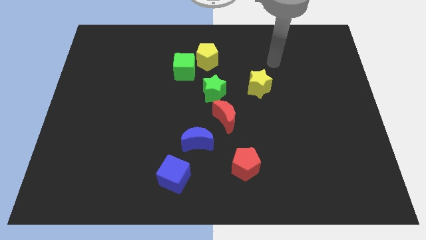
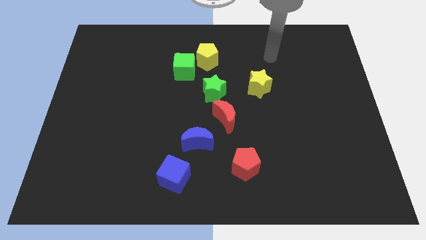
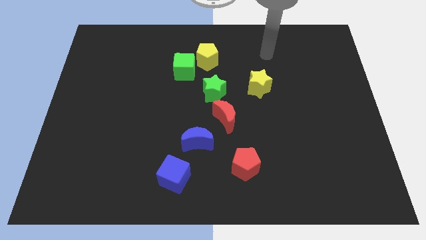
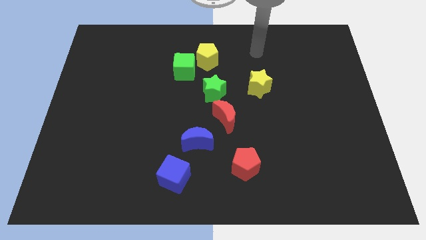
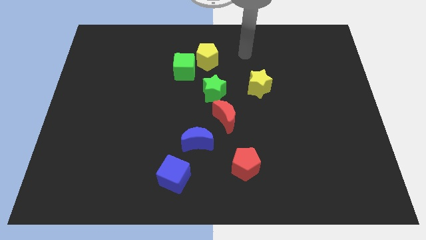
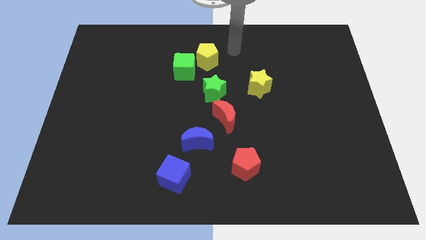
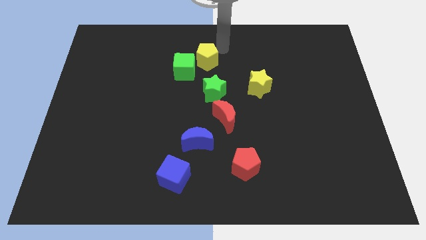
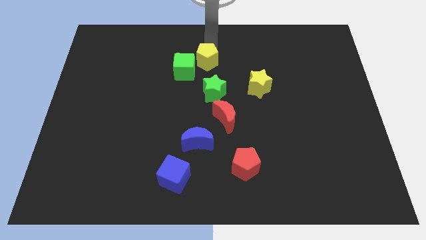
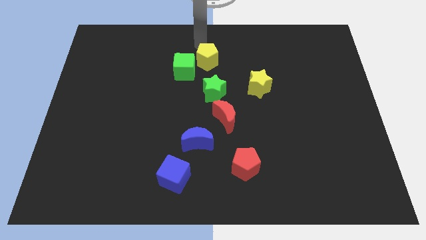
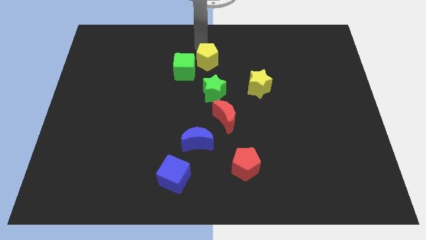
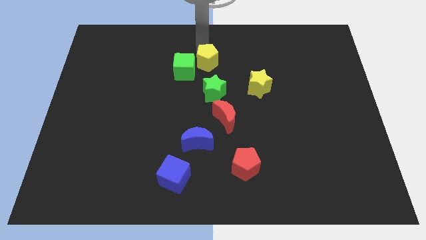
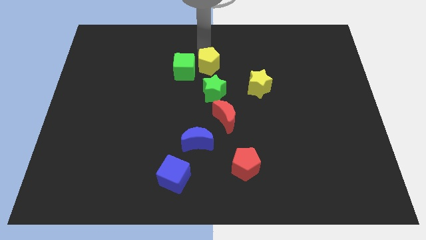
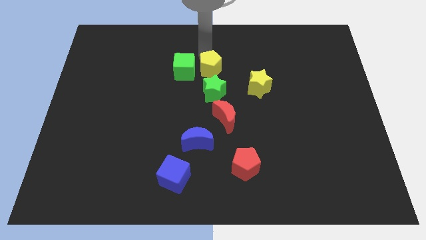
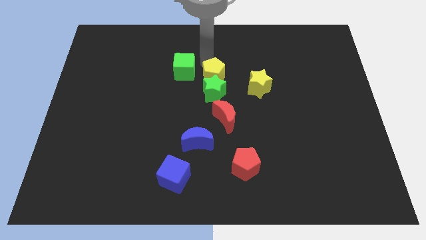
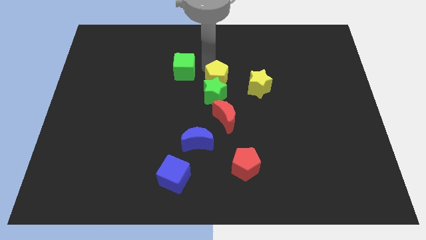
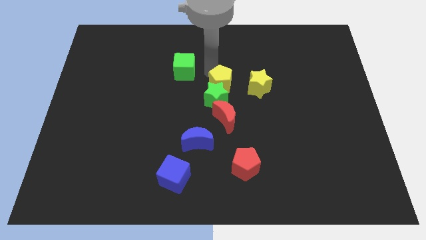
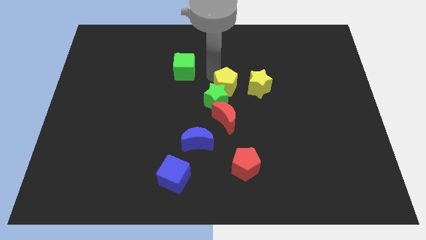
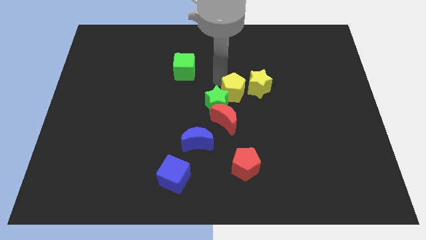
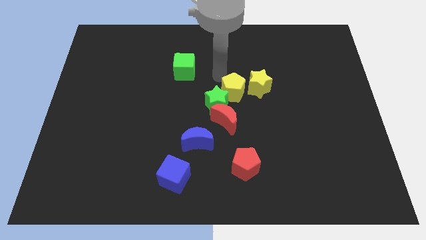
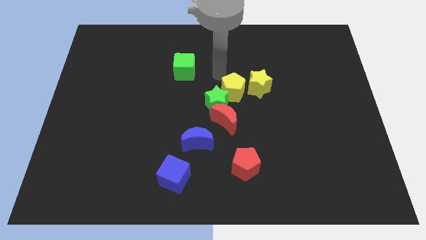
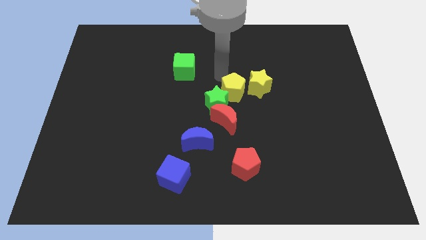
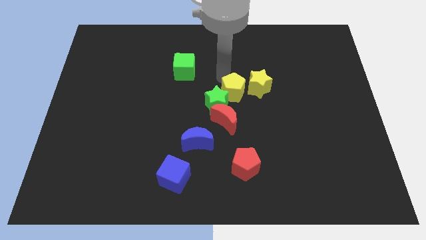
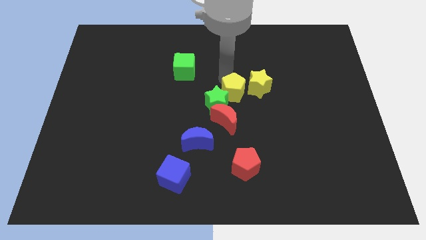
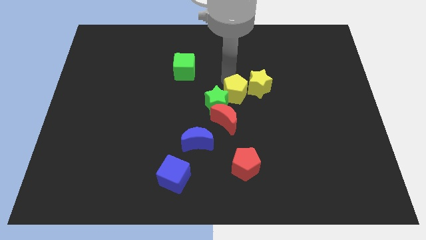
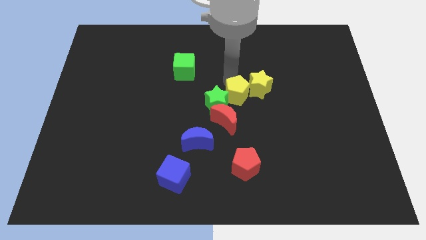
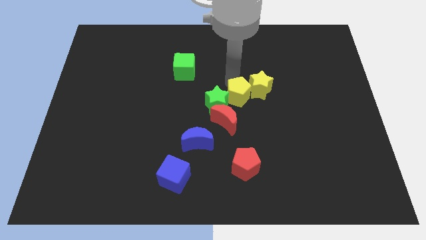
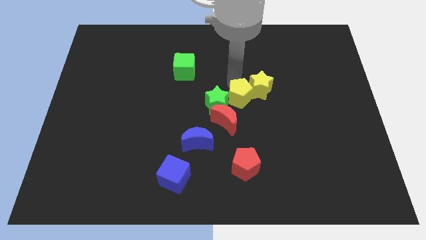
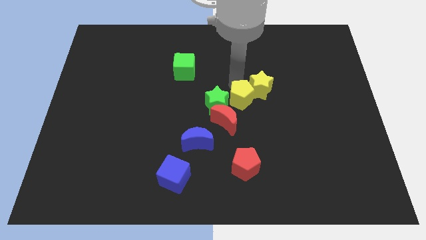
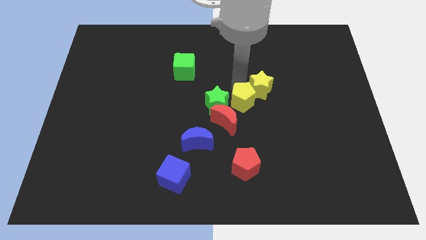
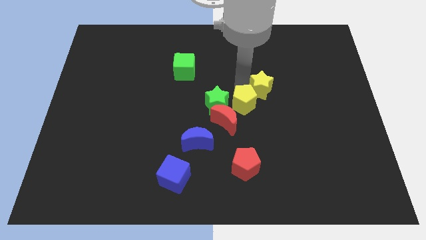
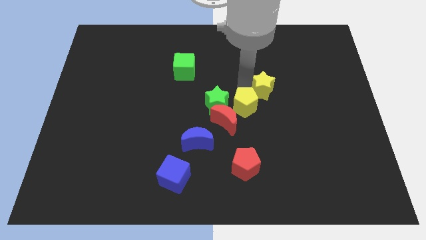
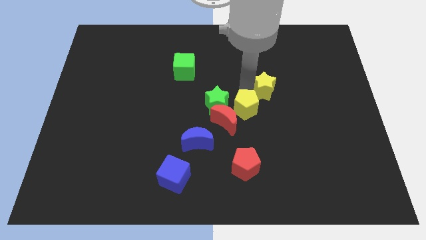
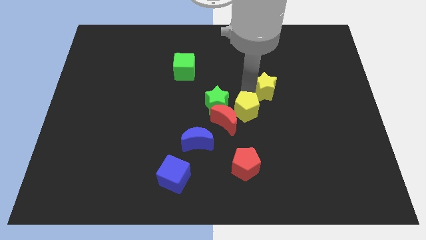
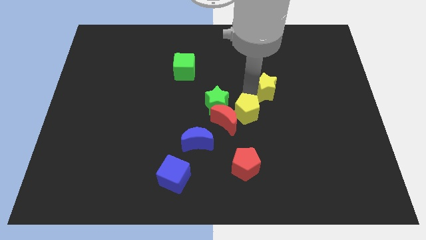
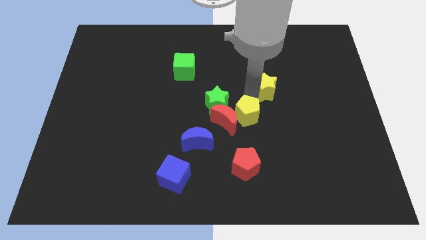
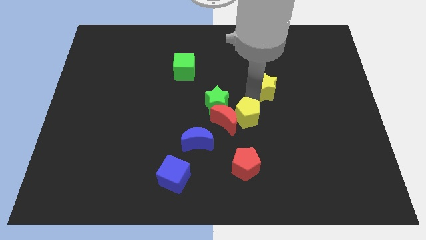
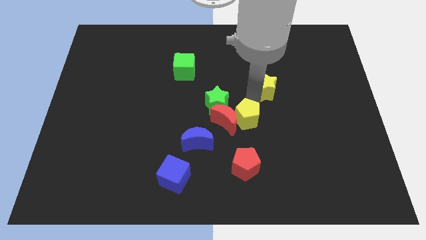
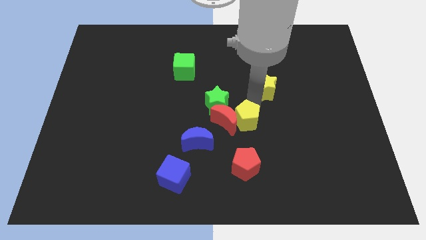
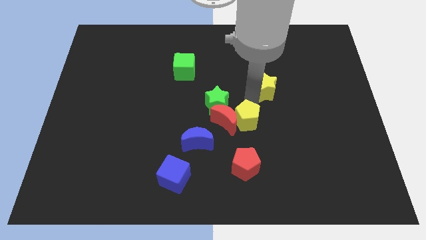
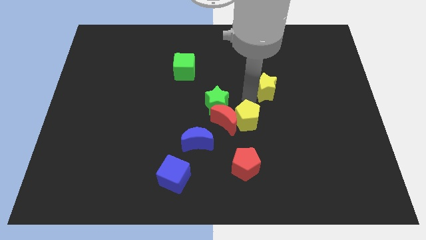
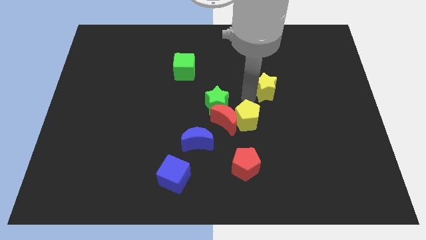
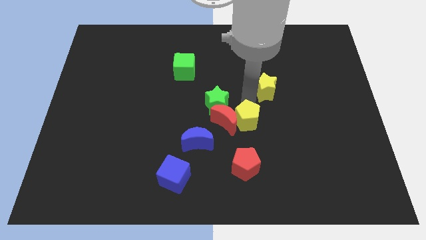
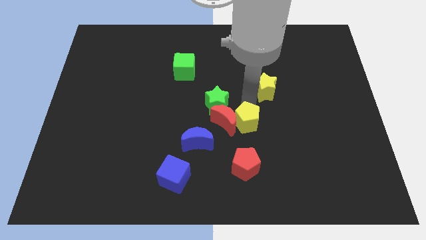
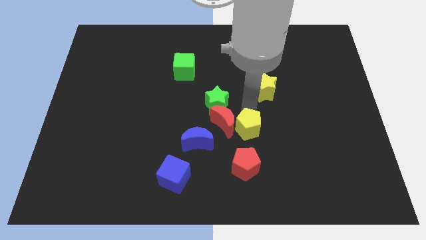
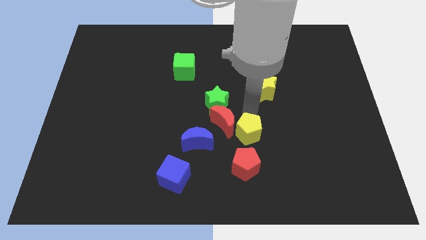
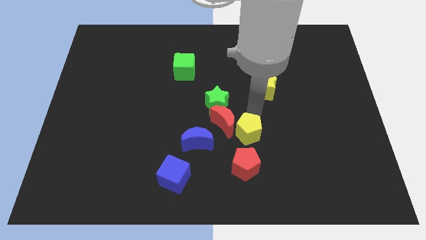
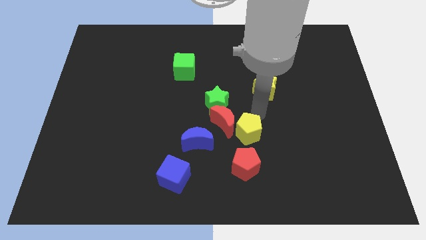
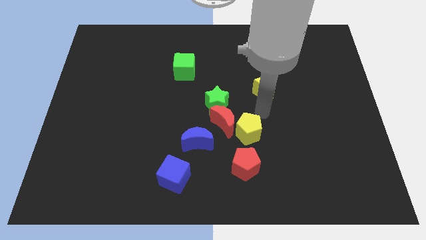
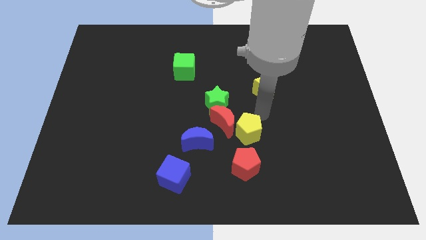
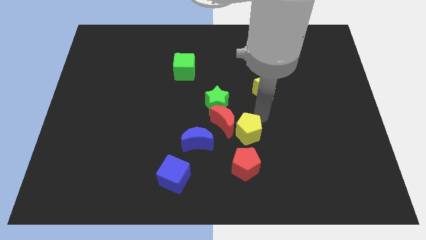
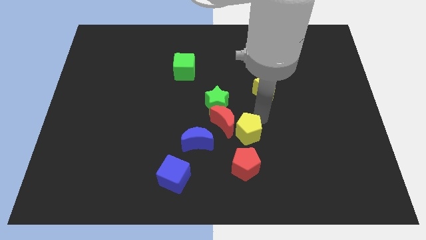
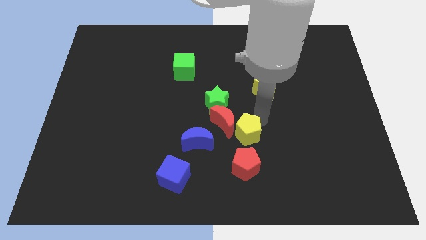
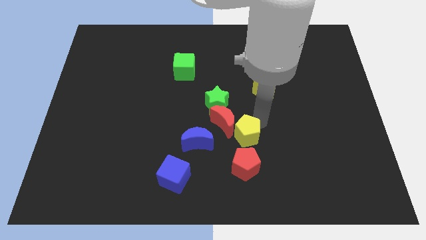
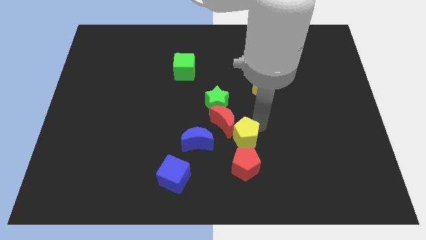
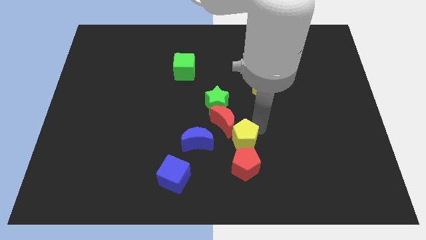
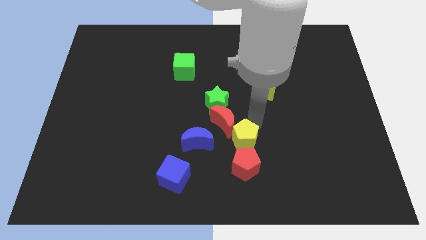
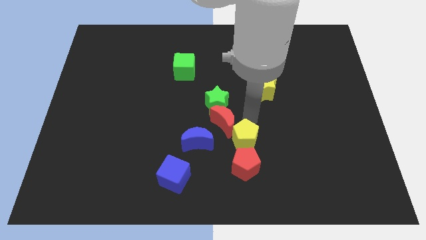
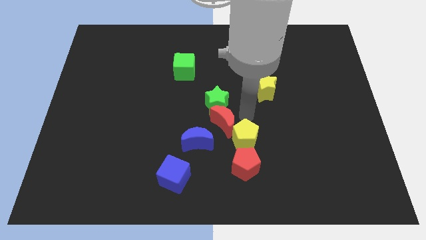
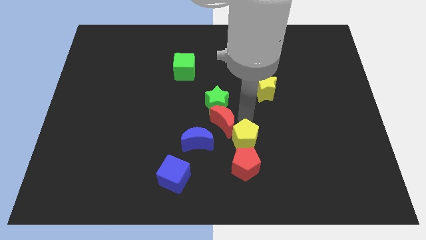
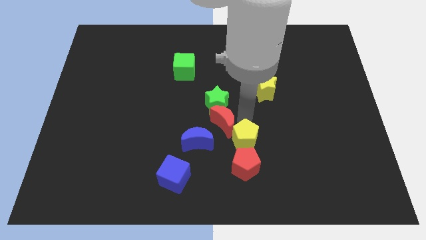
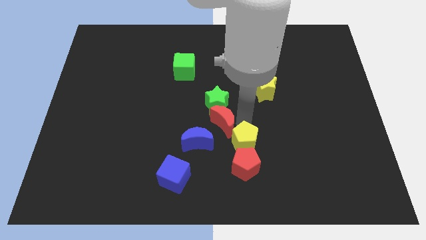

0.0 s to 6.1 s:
slide the yellow pentagon towards the red pentagon

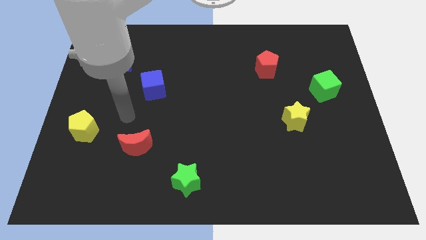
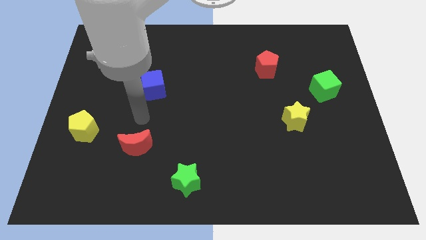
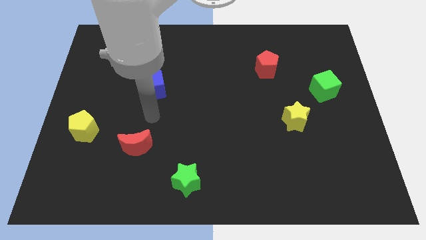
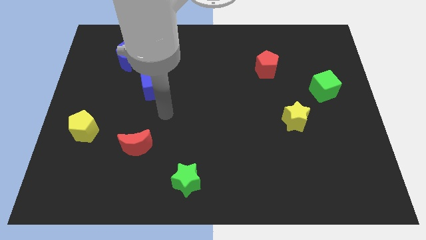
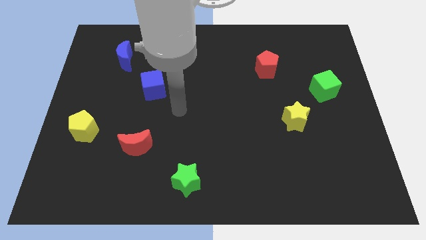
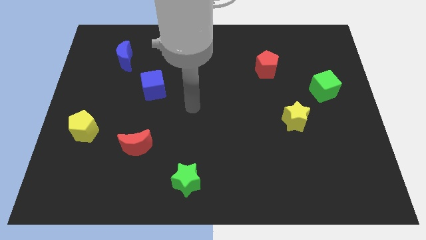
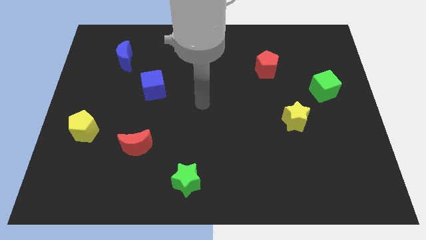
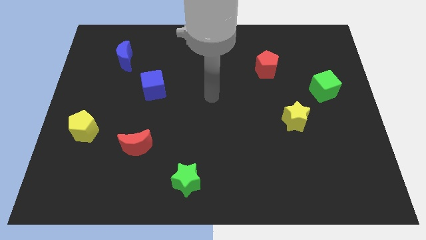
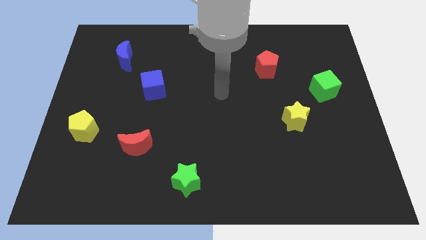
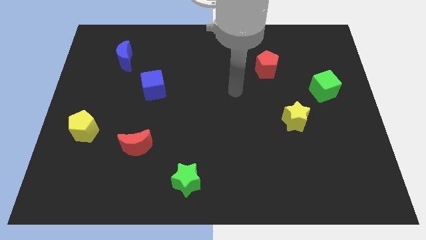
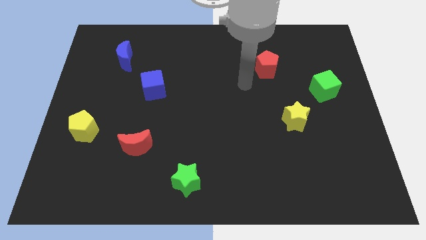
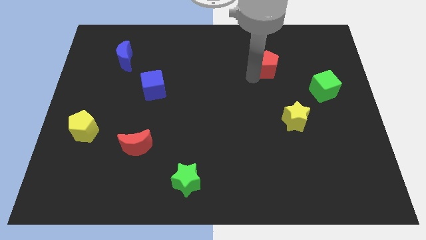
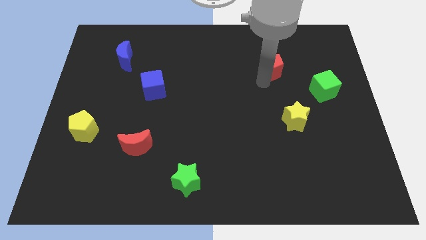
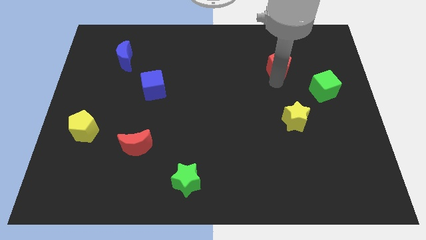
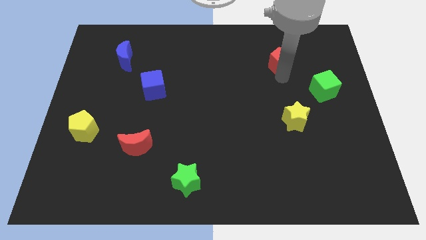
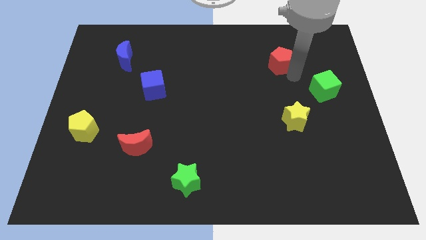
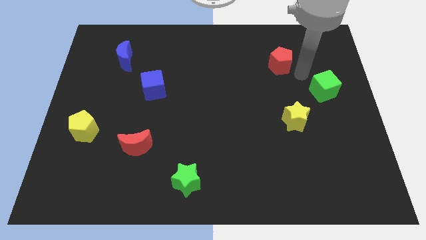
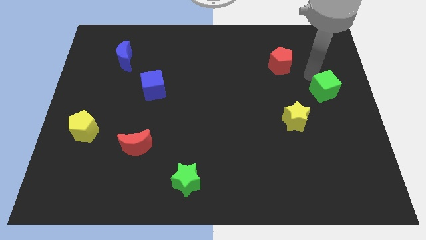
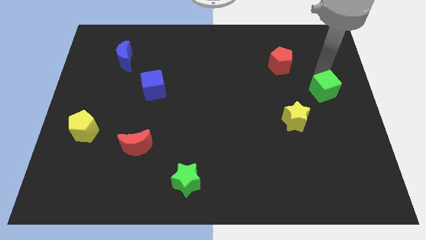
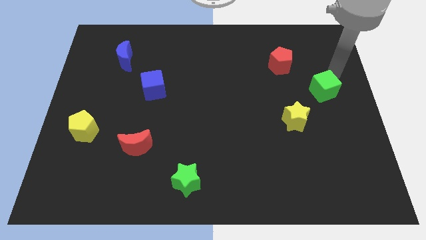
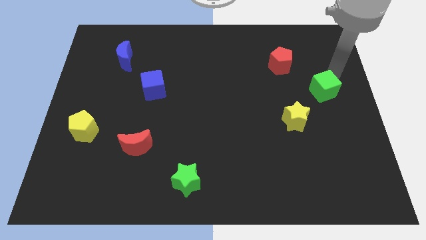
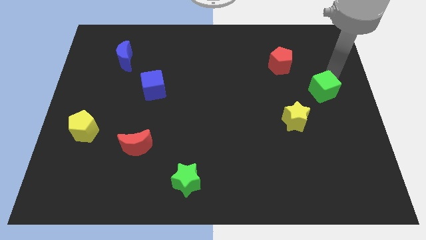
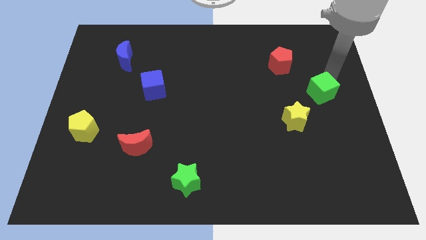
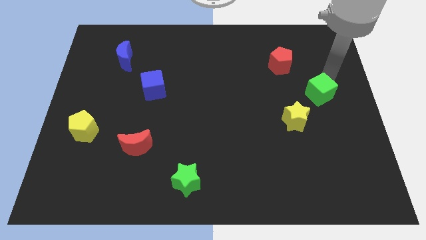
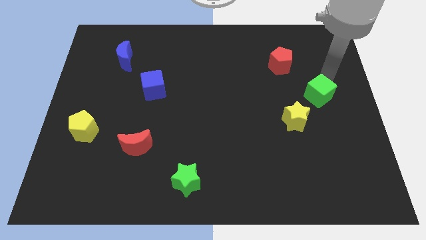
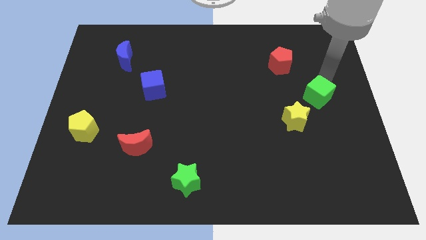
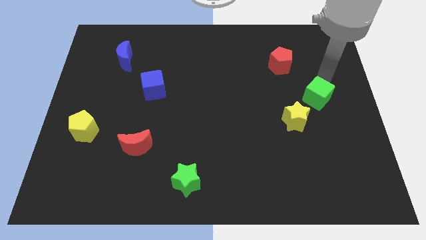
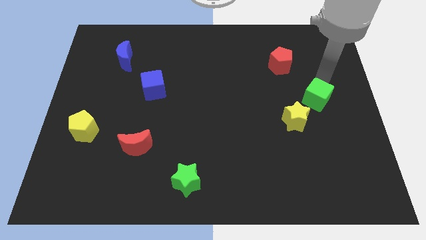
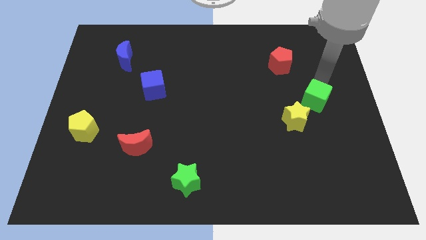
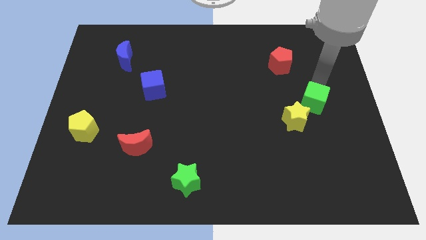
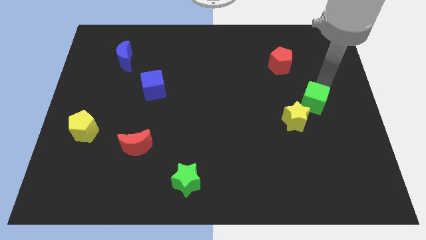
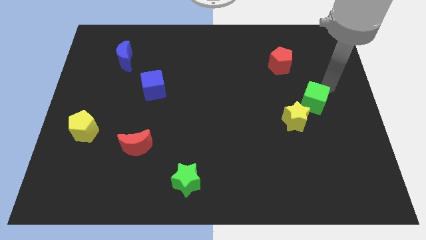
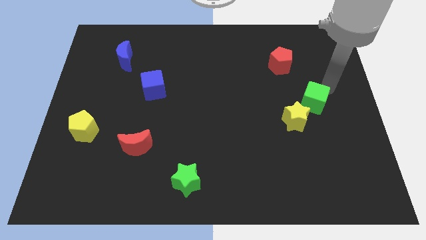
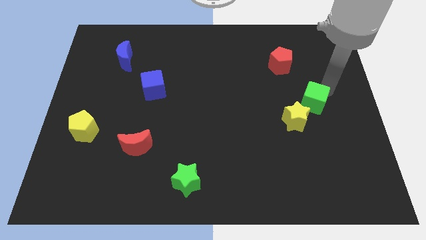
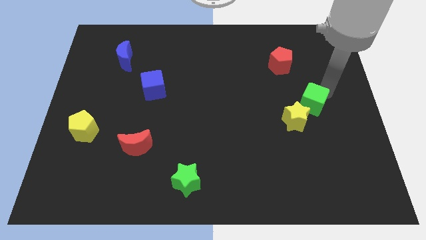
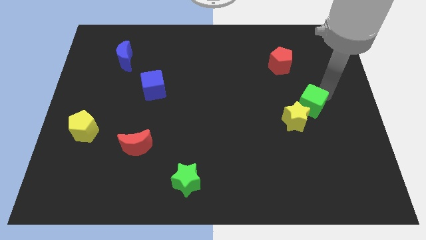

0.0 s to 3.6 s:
slide the green cube towards the yellow star
